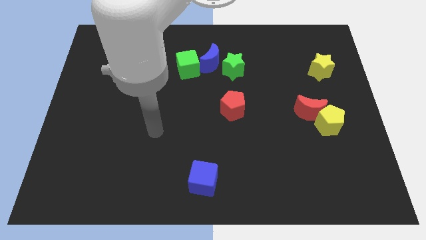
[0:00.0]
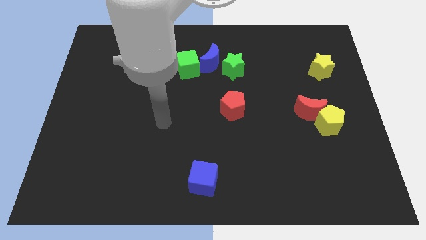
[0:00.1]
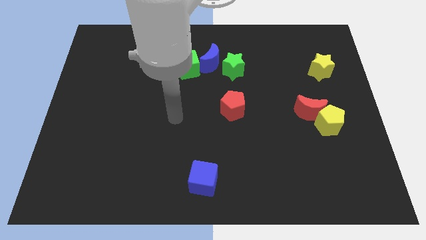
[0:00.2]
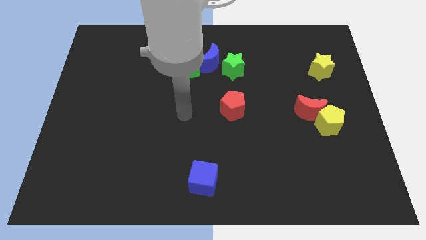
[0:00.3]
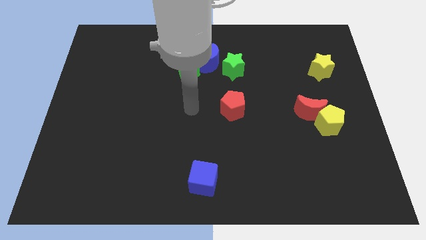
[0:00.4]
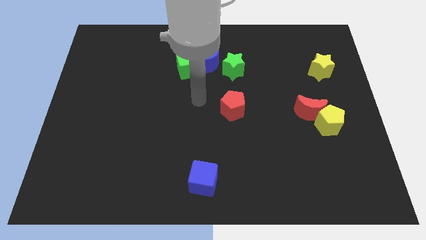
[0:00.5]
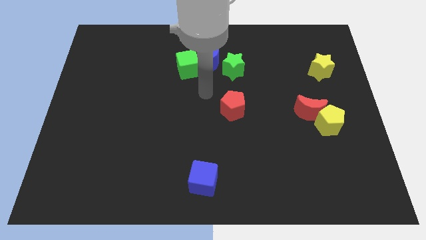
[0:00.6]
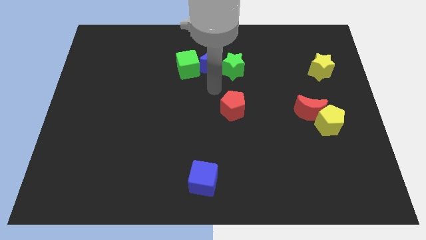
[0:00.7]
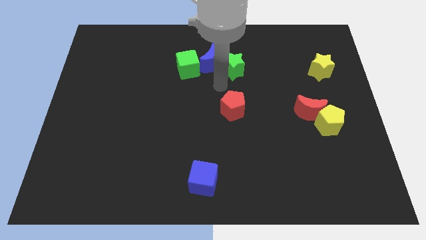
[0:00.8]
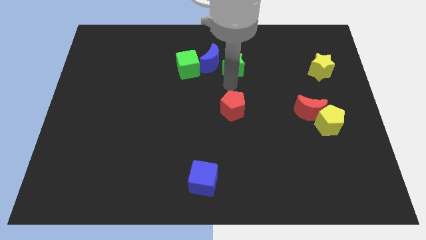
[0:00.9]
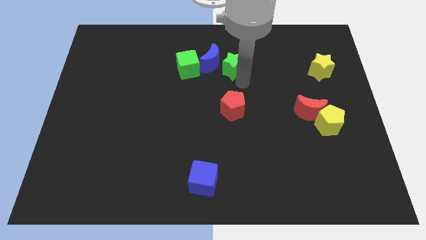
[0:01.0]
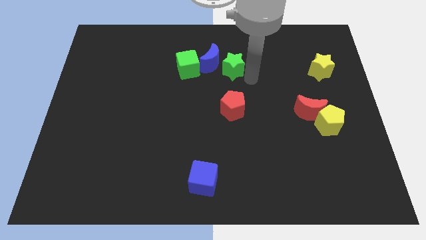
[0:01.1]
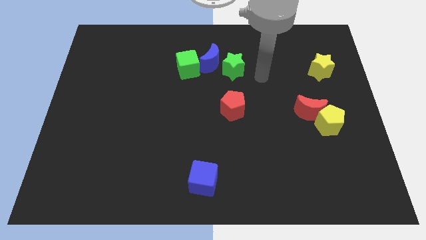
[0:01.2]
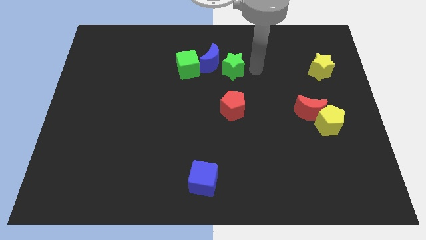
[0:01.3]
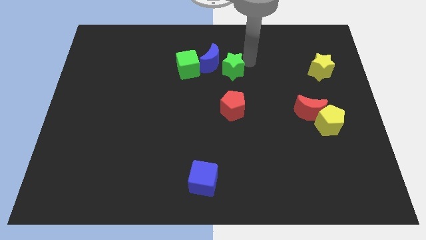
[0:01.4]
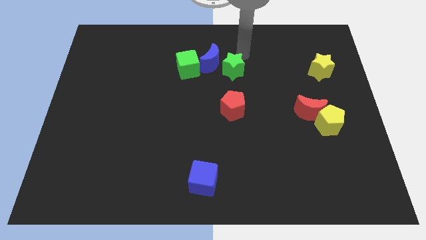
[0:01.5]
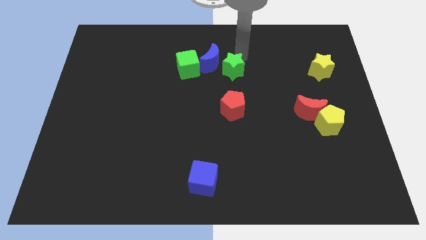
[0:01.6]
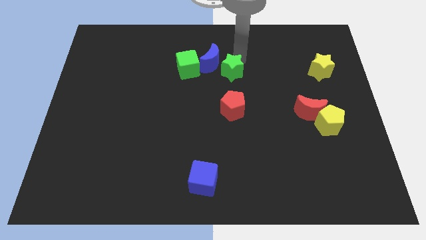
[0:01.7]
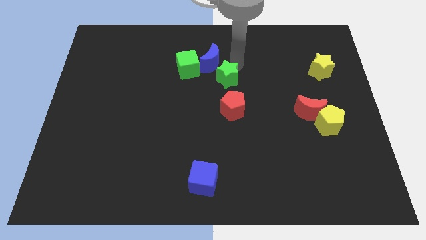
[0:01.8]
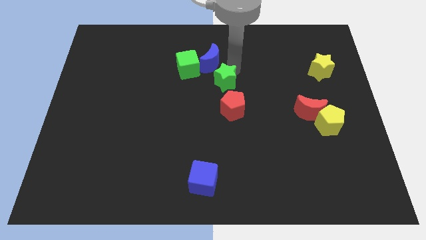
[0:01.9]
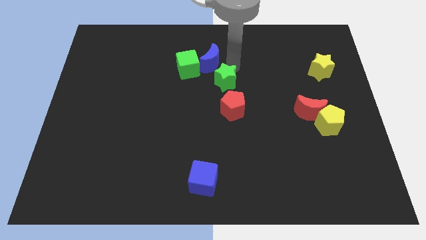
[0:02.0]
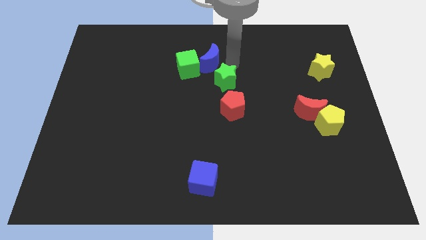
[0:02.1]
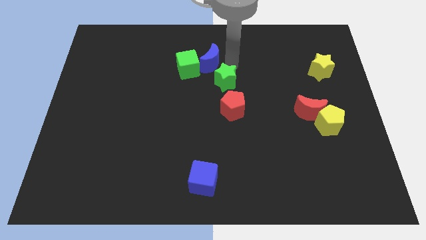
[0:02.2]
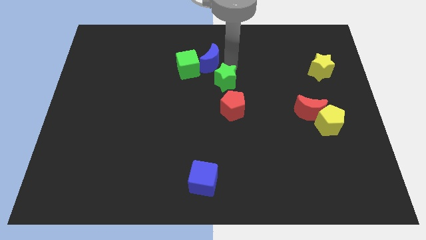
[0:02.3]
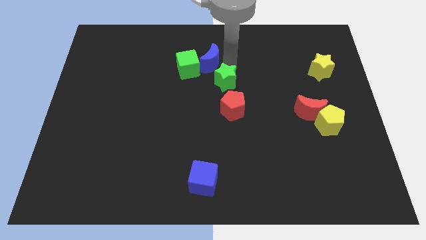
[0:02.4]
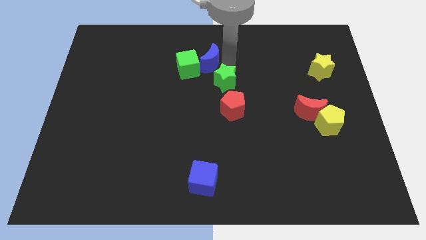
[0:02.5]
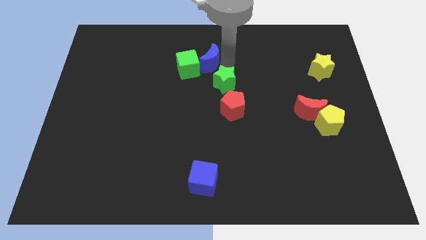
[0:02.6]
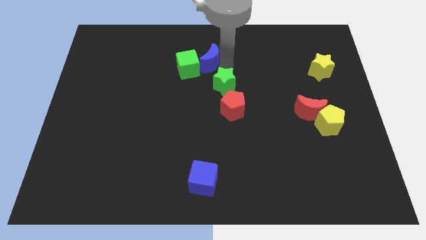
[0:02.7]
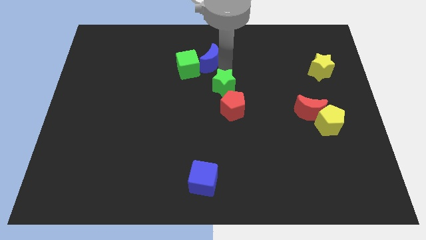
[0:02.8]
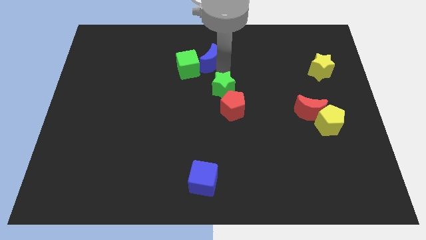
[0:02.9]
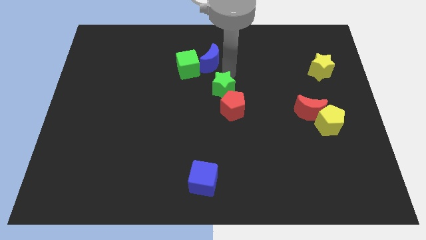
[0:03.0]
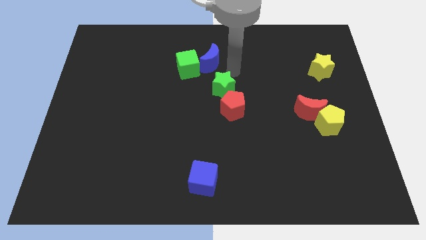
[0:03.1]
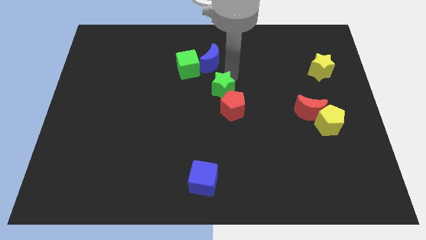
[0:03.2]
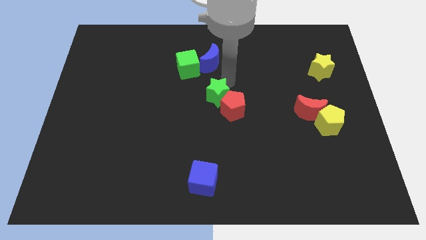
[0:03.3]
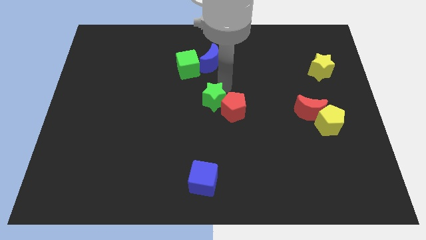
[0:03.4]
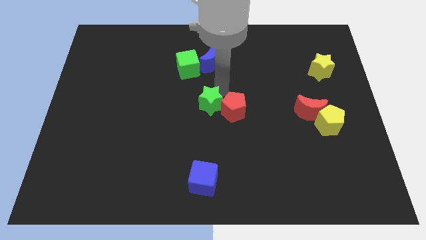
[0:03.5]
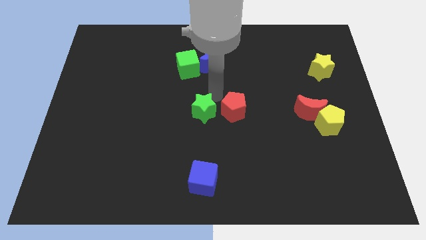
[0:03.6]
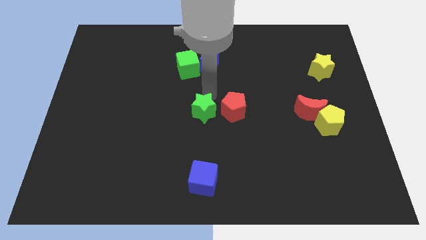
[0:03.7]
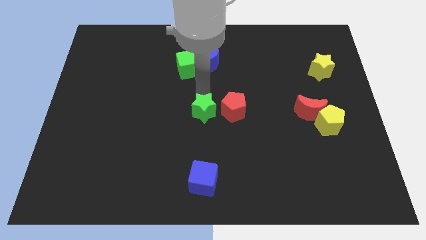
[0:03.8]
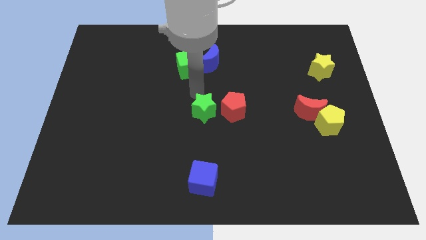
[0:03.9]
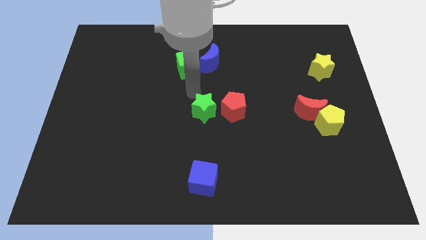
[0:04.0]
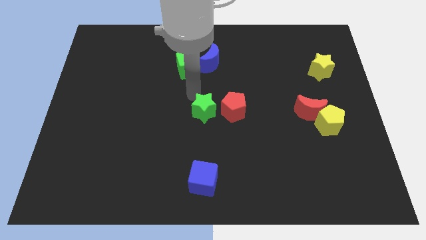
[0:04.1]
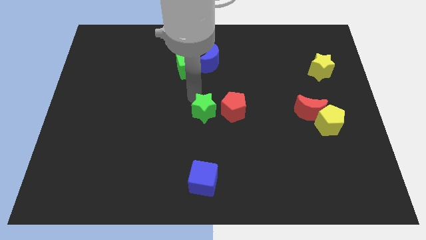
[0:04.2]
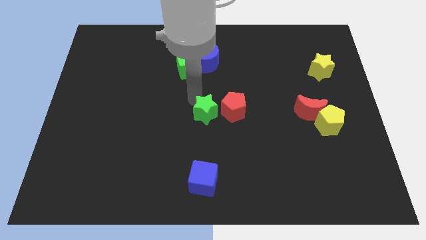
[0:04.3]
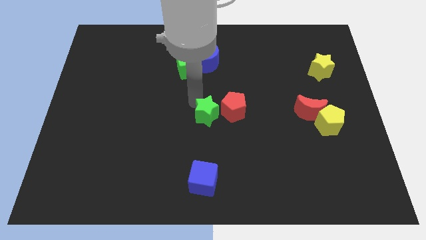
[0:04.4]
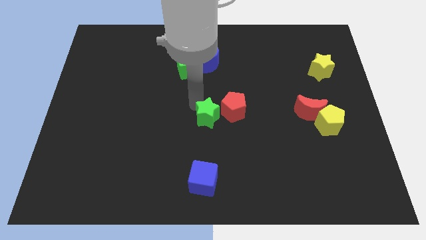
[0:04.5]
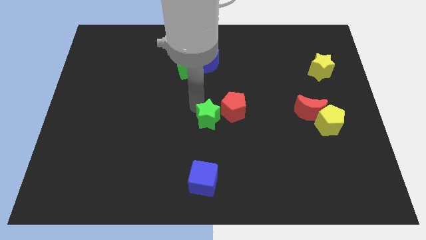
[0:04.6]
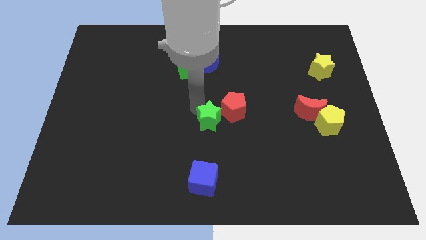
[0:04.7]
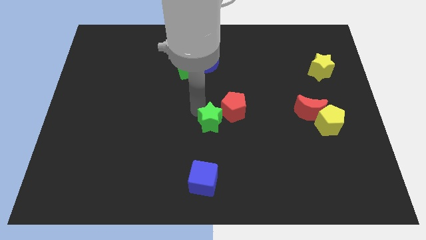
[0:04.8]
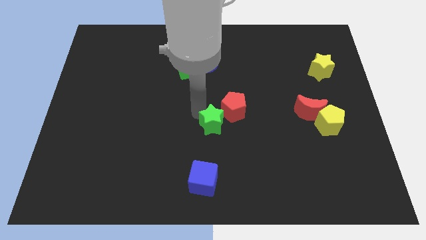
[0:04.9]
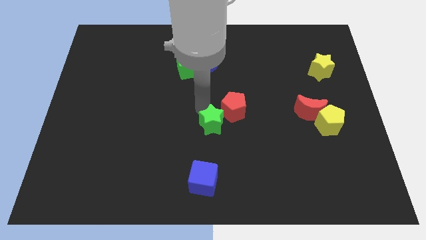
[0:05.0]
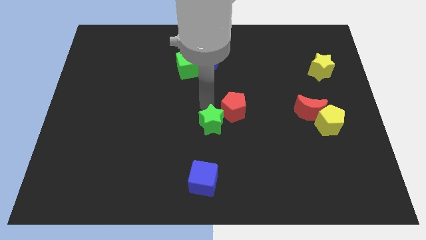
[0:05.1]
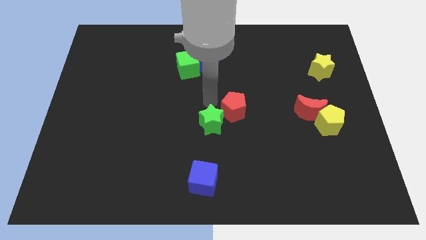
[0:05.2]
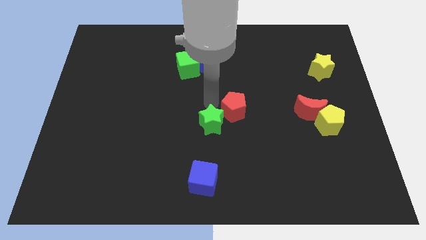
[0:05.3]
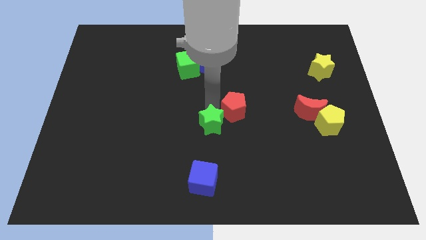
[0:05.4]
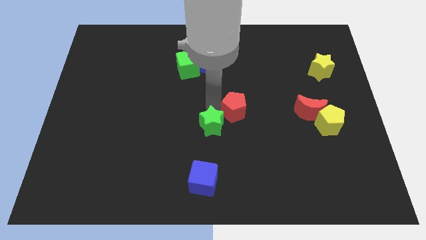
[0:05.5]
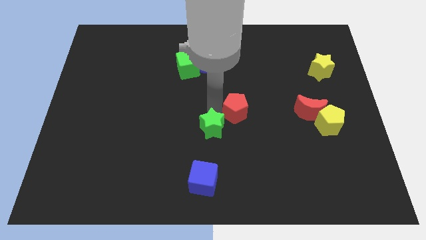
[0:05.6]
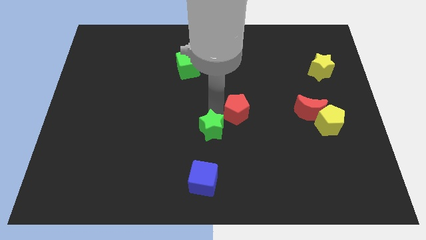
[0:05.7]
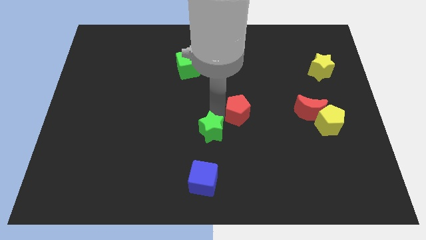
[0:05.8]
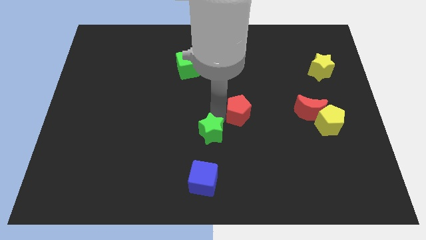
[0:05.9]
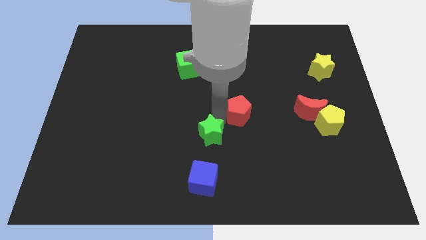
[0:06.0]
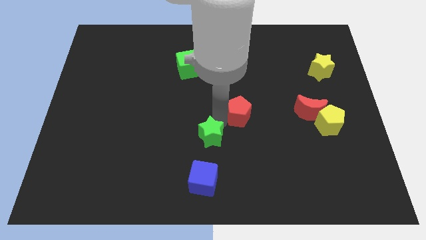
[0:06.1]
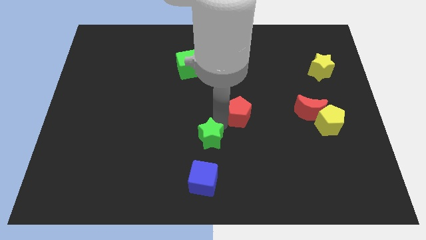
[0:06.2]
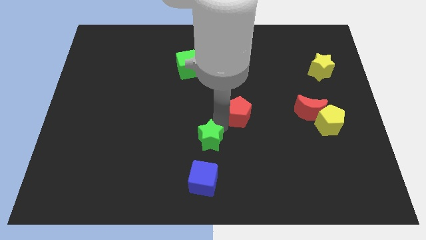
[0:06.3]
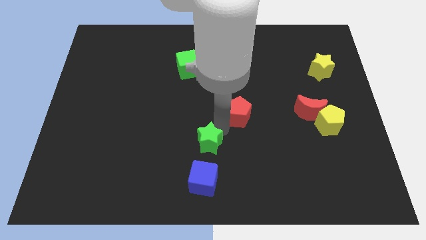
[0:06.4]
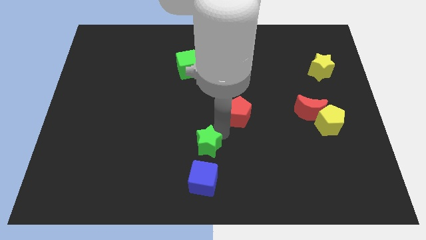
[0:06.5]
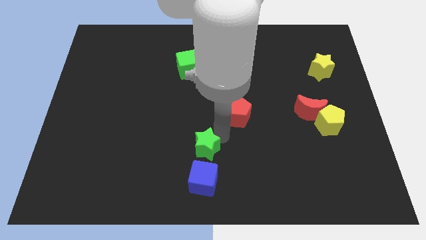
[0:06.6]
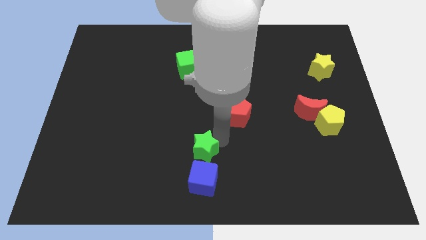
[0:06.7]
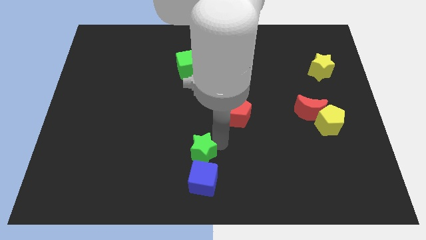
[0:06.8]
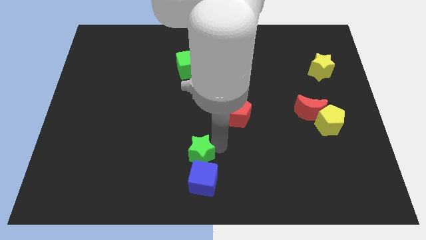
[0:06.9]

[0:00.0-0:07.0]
push the green star next to the blue cube

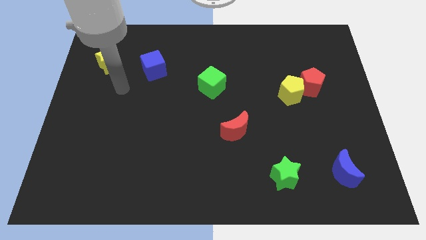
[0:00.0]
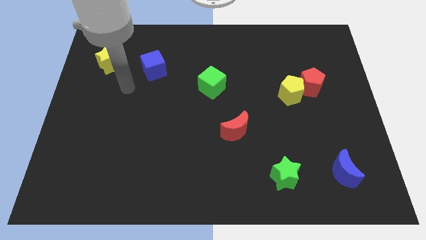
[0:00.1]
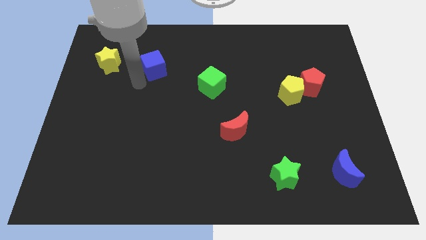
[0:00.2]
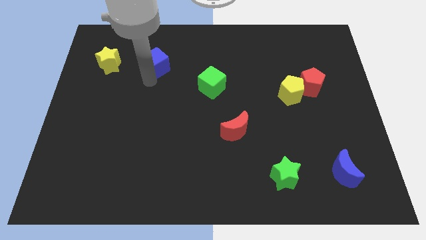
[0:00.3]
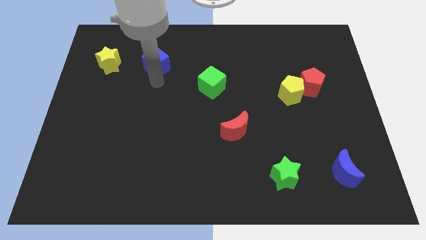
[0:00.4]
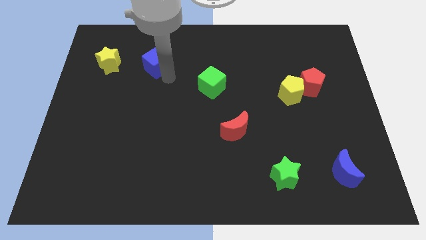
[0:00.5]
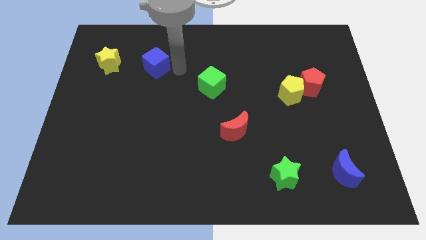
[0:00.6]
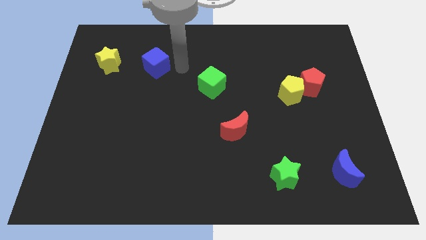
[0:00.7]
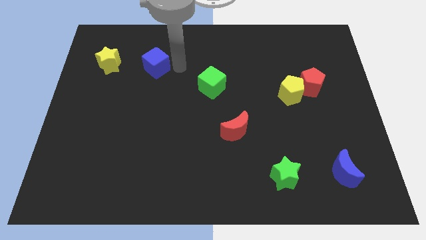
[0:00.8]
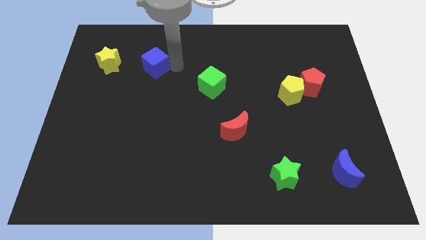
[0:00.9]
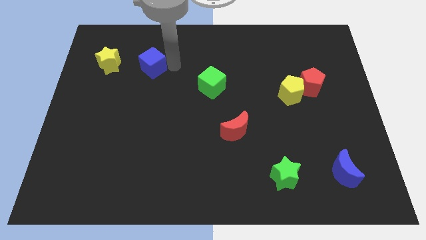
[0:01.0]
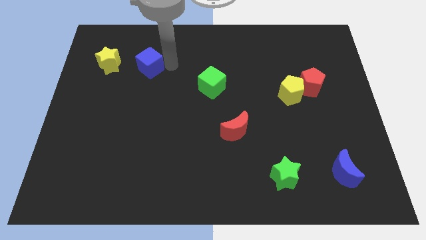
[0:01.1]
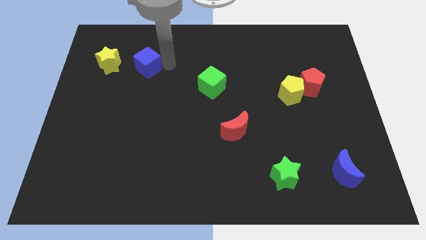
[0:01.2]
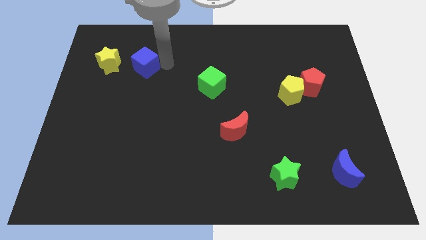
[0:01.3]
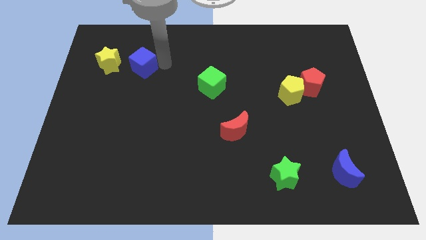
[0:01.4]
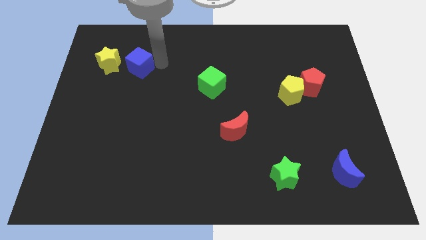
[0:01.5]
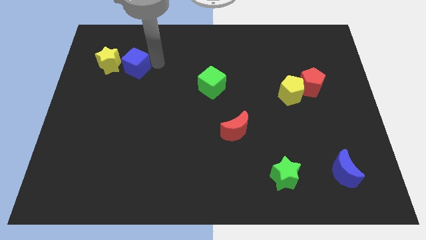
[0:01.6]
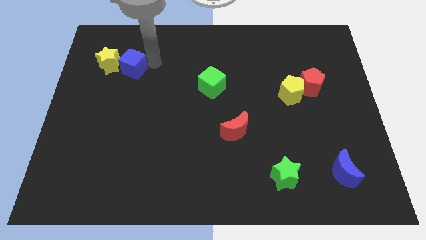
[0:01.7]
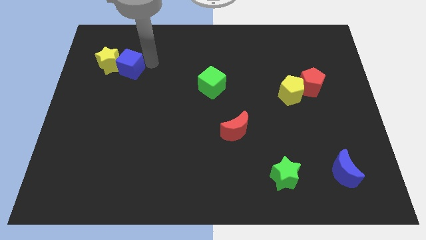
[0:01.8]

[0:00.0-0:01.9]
move the blue cube to the yellow star
